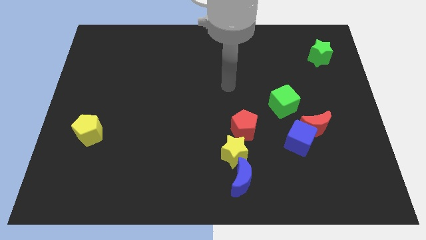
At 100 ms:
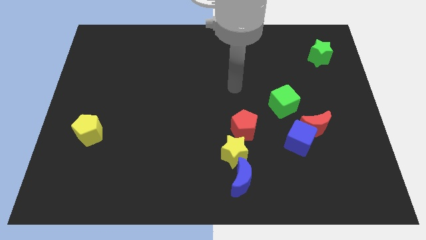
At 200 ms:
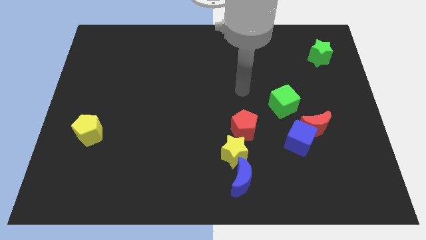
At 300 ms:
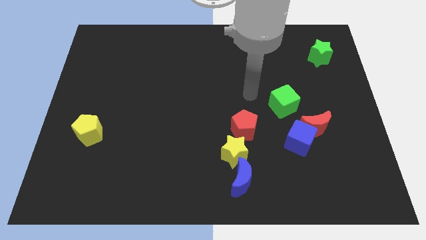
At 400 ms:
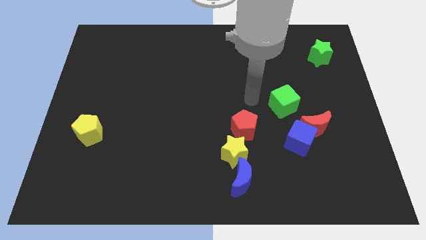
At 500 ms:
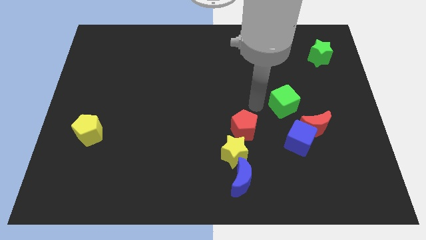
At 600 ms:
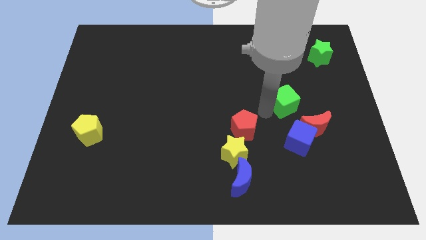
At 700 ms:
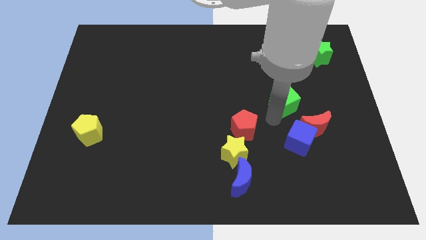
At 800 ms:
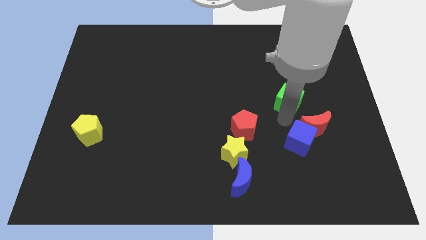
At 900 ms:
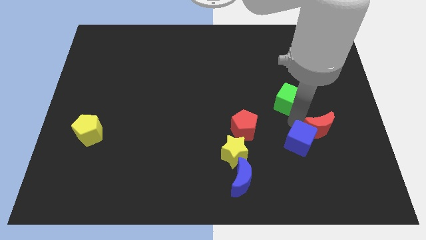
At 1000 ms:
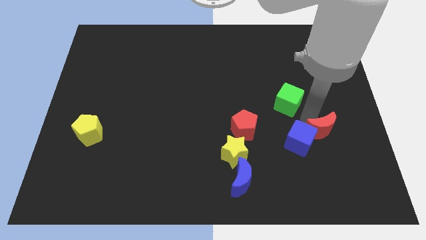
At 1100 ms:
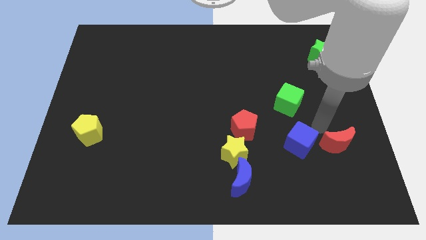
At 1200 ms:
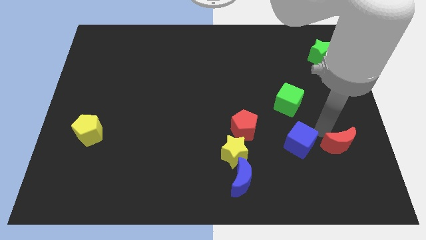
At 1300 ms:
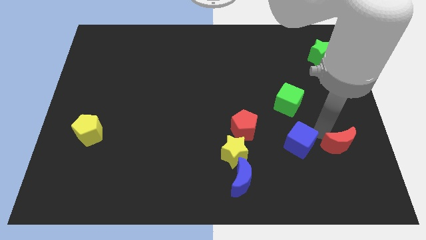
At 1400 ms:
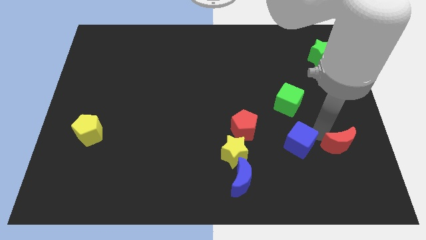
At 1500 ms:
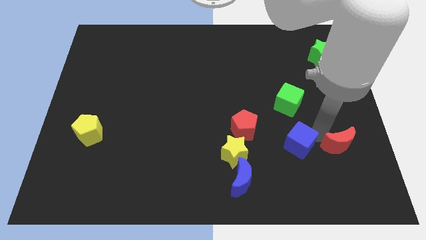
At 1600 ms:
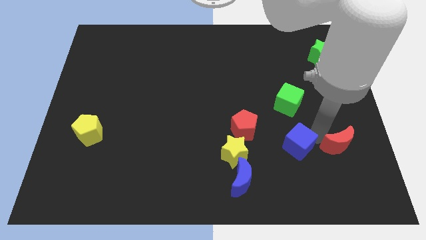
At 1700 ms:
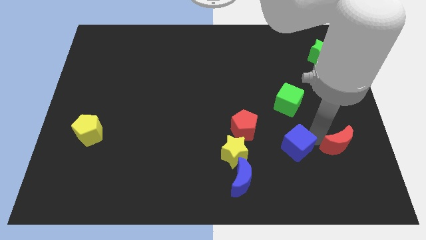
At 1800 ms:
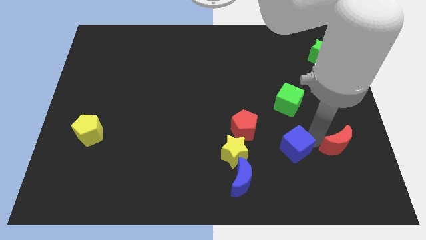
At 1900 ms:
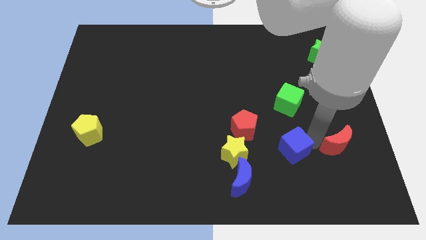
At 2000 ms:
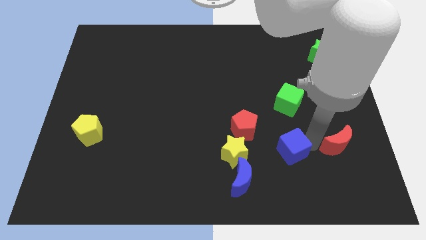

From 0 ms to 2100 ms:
move the blue cube away from the red moon

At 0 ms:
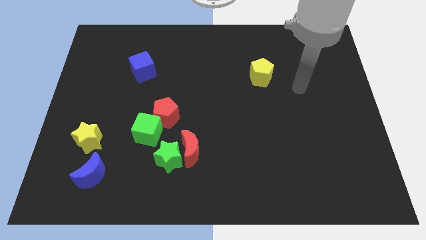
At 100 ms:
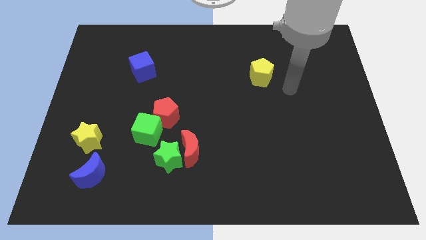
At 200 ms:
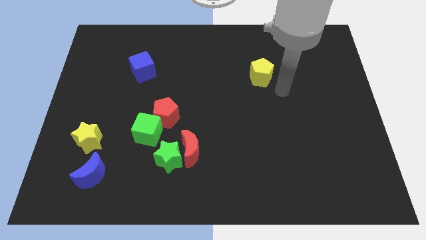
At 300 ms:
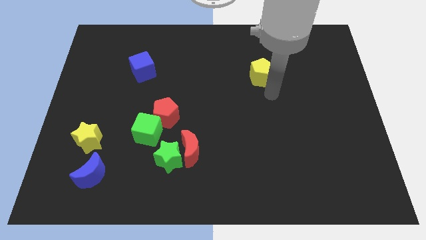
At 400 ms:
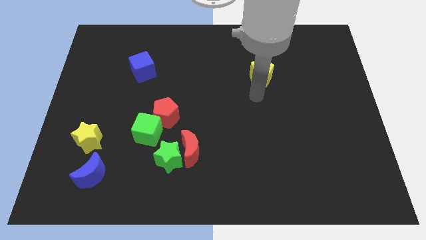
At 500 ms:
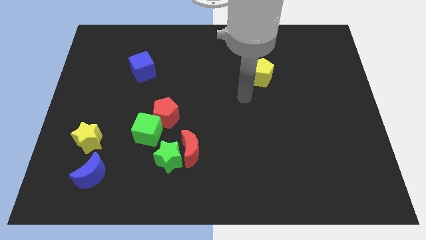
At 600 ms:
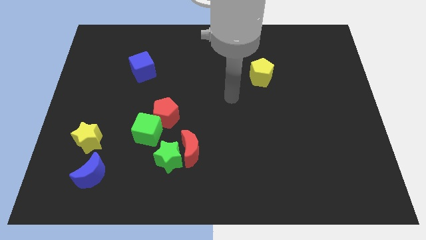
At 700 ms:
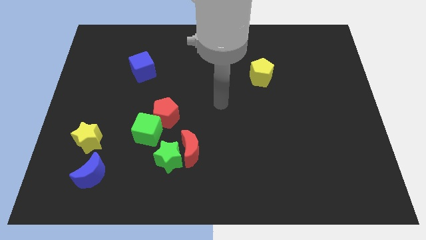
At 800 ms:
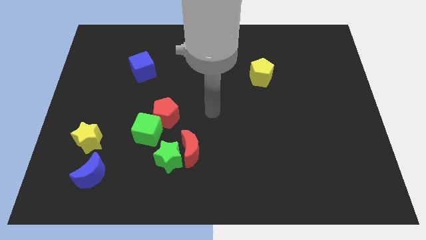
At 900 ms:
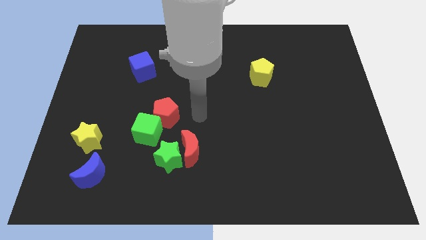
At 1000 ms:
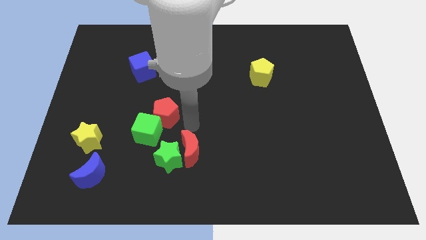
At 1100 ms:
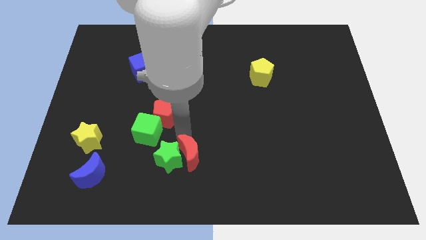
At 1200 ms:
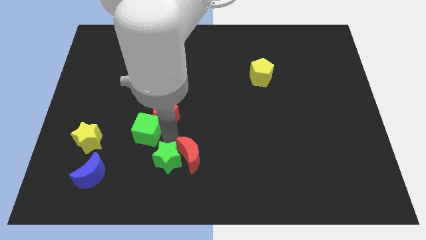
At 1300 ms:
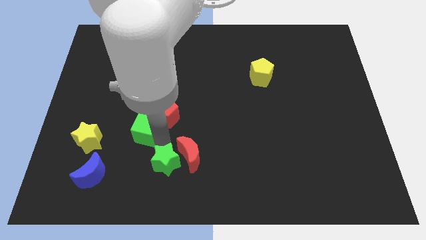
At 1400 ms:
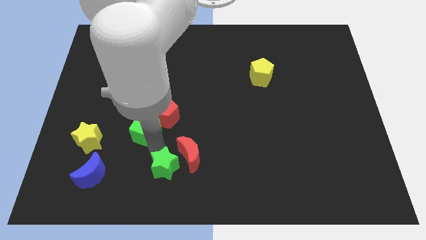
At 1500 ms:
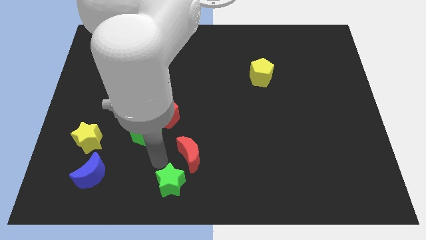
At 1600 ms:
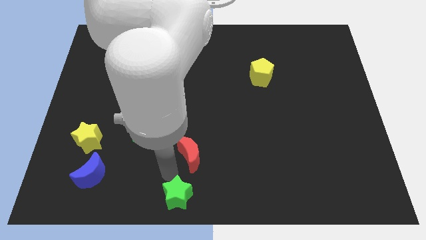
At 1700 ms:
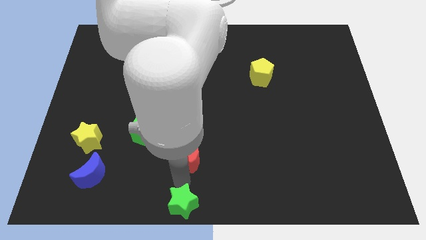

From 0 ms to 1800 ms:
move the red moon away from the green star

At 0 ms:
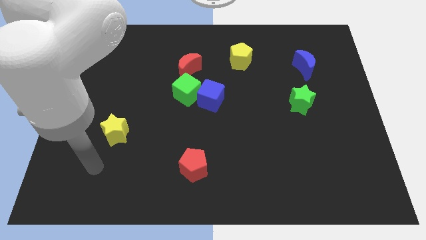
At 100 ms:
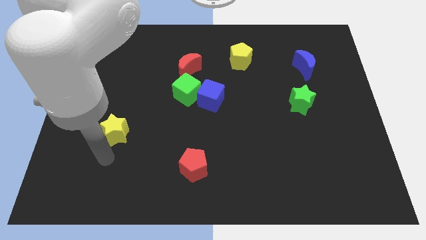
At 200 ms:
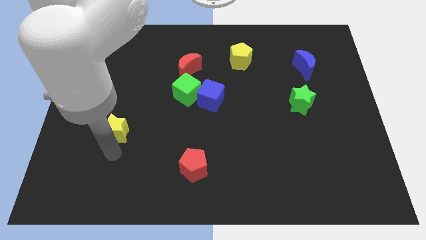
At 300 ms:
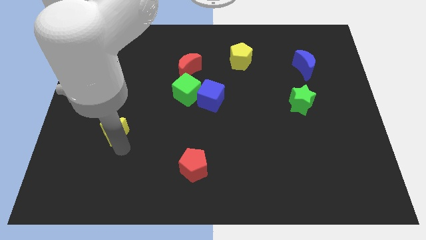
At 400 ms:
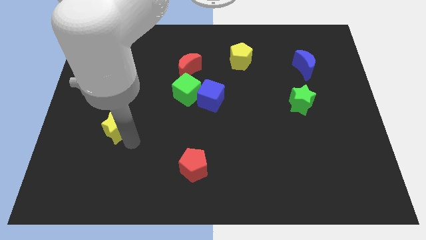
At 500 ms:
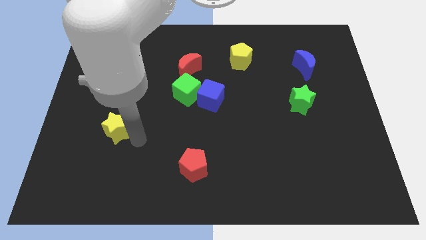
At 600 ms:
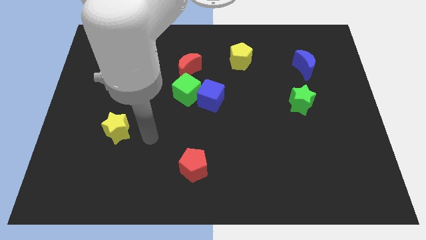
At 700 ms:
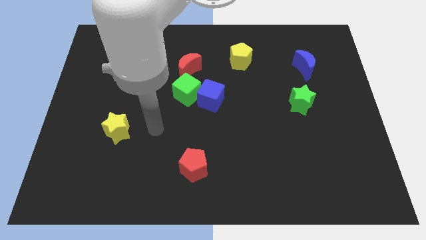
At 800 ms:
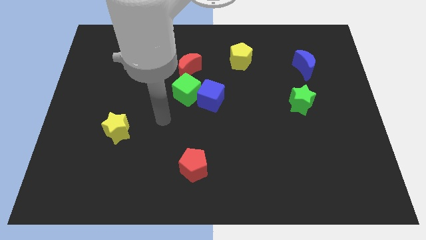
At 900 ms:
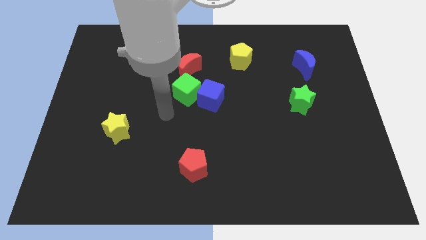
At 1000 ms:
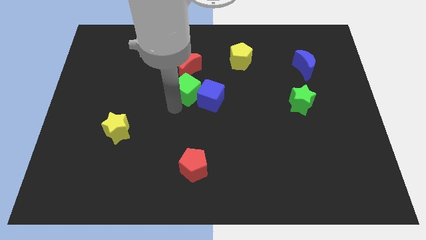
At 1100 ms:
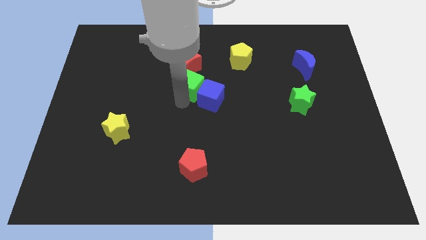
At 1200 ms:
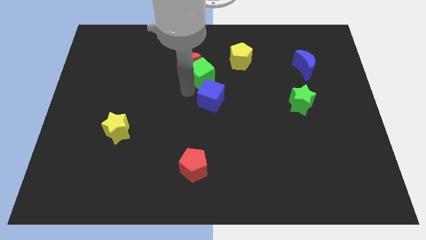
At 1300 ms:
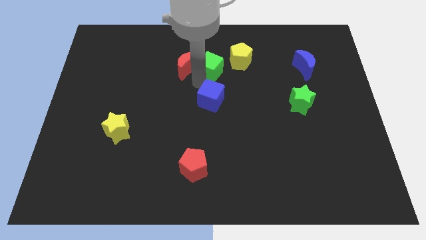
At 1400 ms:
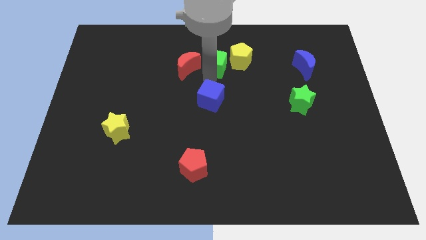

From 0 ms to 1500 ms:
separate the blue cube from the green cube

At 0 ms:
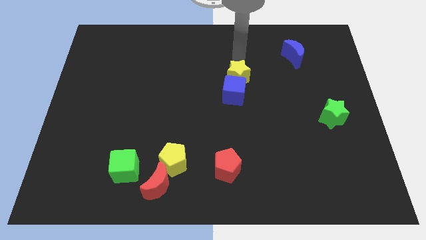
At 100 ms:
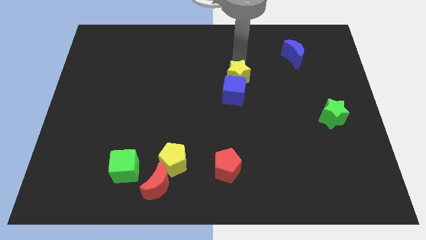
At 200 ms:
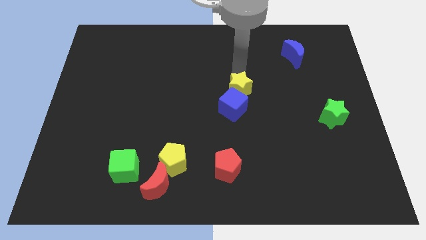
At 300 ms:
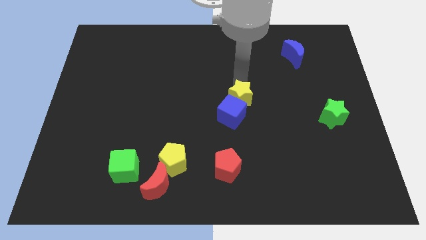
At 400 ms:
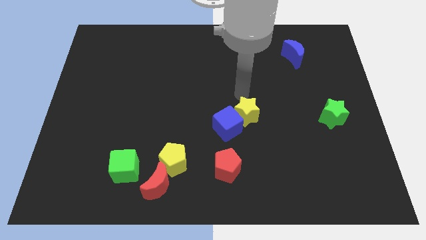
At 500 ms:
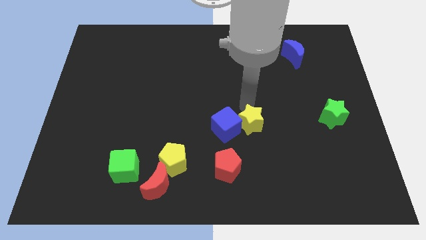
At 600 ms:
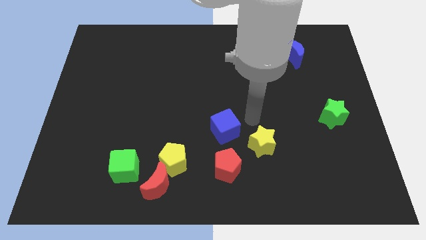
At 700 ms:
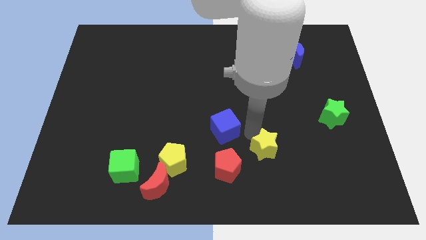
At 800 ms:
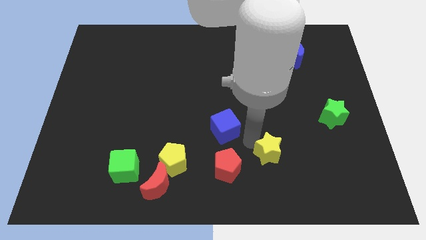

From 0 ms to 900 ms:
separate the blue cube from the yellow star

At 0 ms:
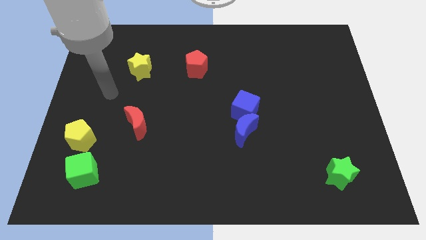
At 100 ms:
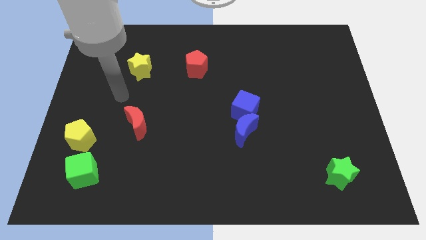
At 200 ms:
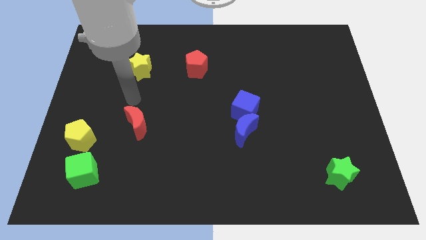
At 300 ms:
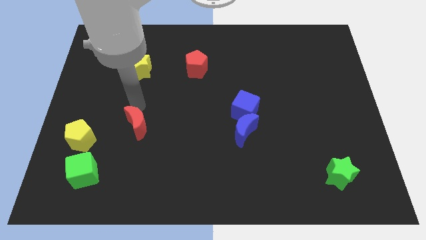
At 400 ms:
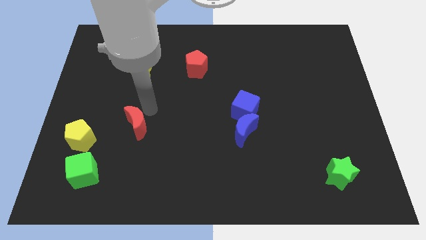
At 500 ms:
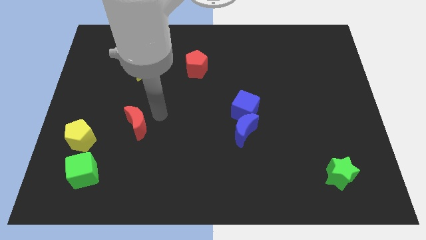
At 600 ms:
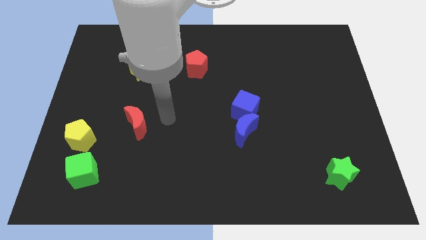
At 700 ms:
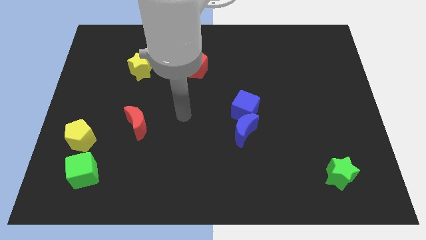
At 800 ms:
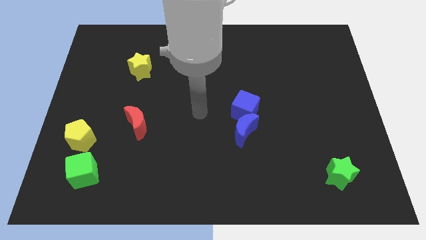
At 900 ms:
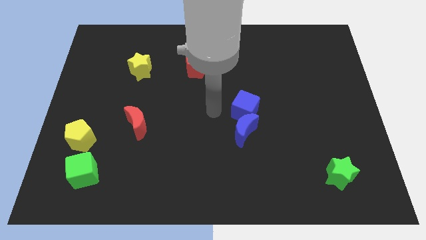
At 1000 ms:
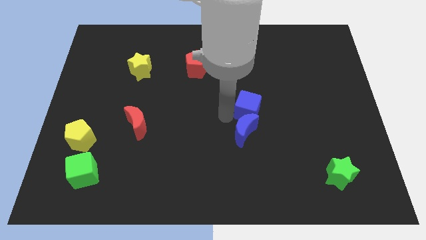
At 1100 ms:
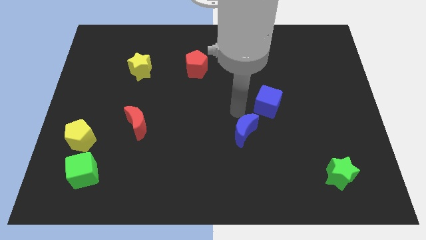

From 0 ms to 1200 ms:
pull the blue moon apart from the blue cube

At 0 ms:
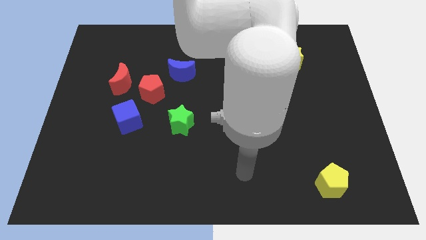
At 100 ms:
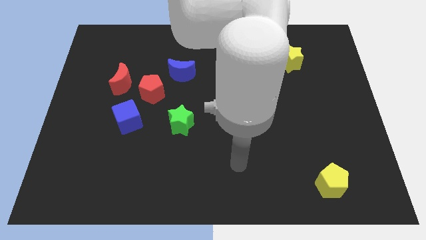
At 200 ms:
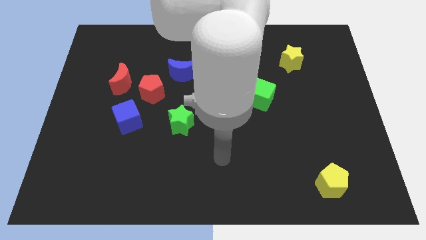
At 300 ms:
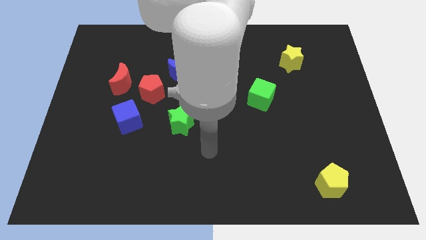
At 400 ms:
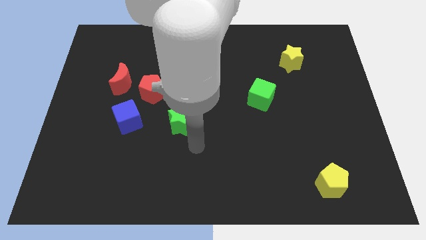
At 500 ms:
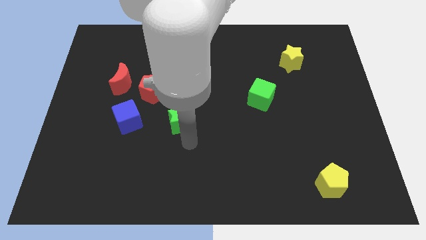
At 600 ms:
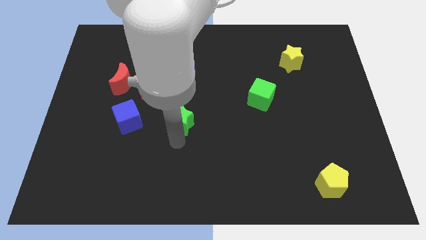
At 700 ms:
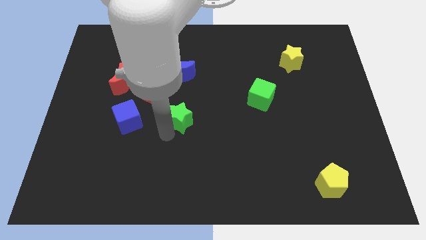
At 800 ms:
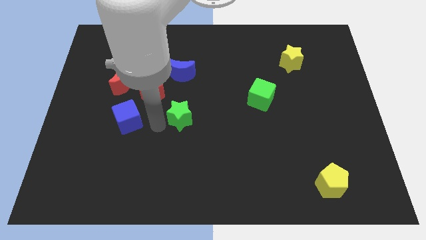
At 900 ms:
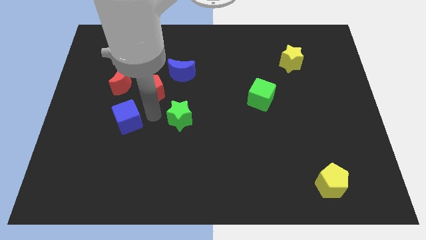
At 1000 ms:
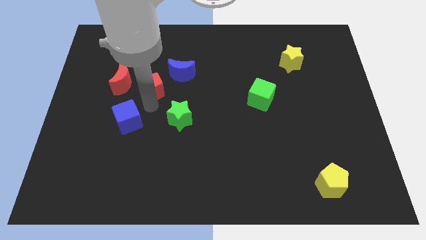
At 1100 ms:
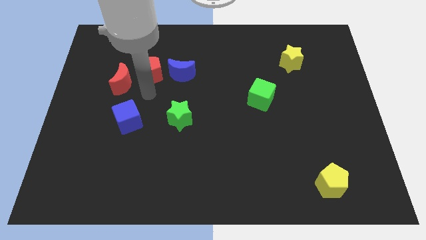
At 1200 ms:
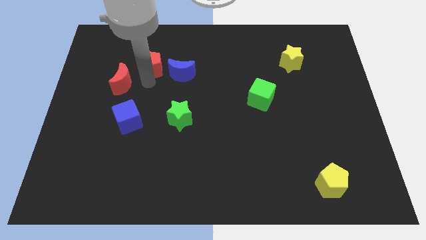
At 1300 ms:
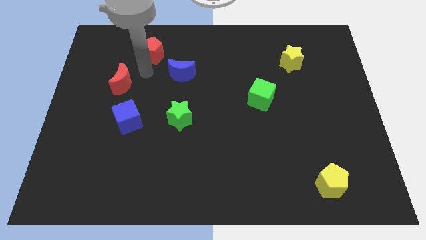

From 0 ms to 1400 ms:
pull the red moon apart from the red pentagon

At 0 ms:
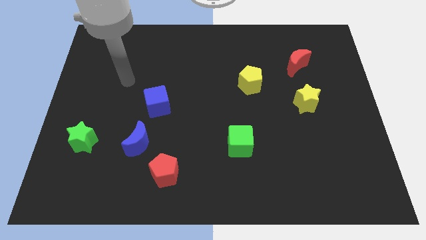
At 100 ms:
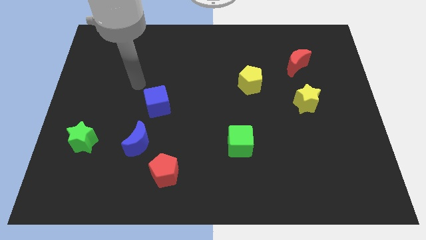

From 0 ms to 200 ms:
pull the red pentagon apart from the blue moon

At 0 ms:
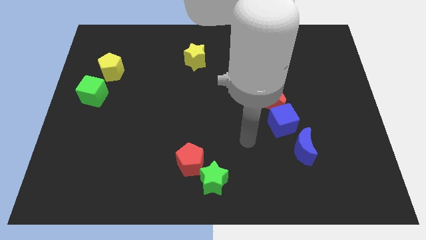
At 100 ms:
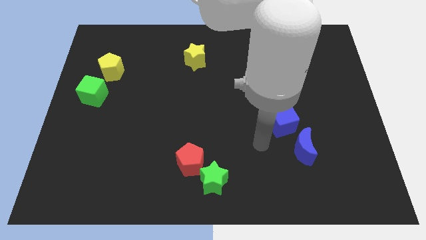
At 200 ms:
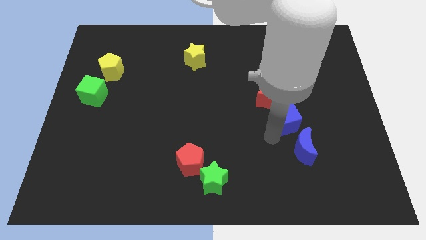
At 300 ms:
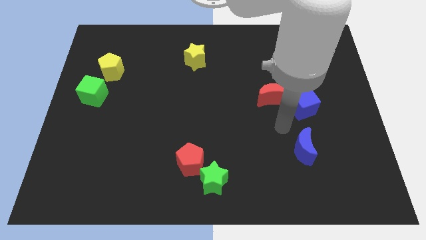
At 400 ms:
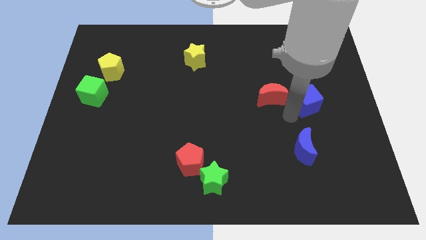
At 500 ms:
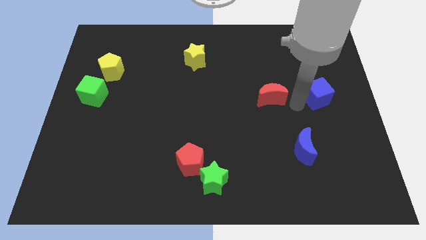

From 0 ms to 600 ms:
pull the red moon apart from the blue cube
